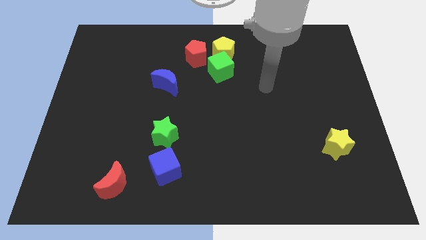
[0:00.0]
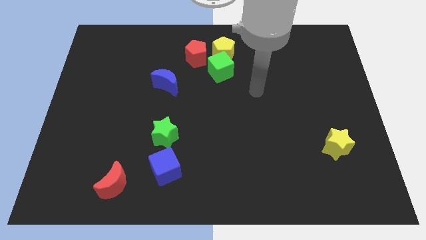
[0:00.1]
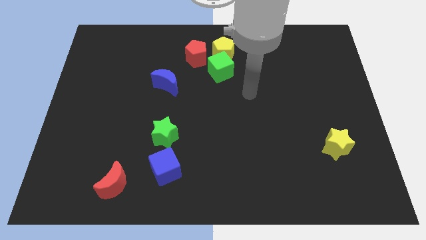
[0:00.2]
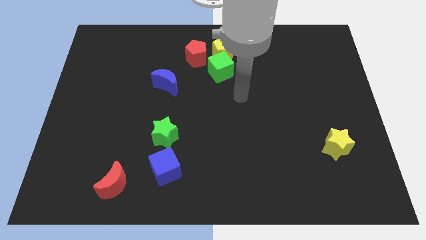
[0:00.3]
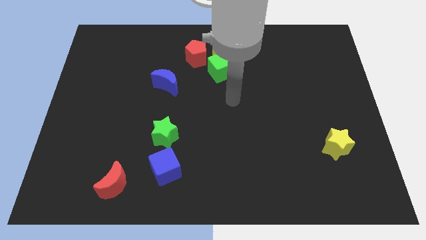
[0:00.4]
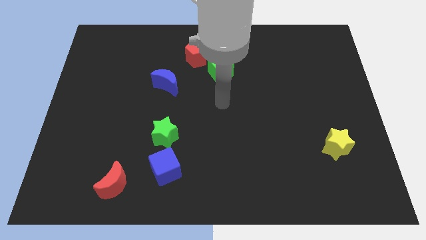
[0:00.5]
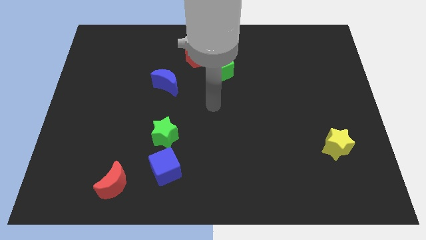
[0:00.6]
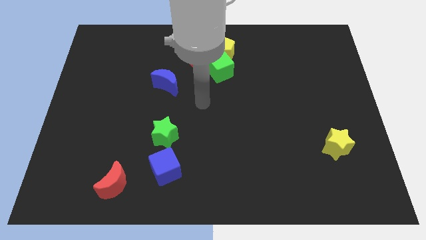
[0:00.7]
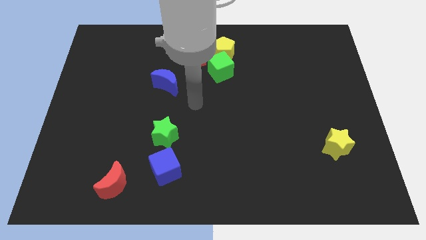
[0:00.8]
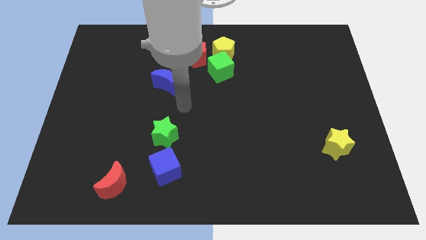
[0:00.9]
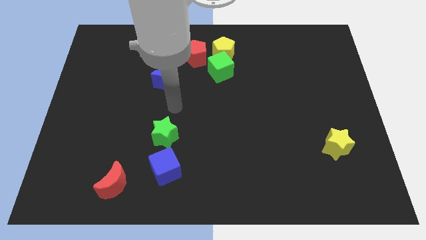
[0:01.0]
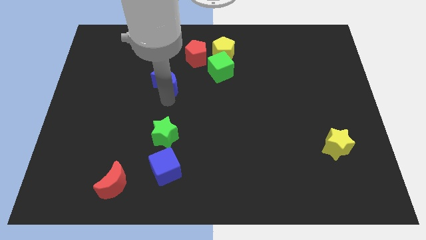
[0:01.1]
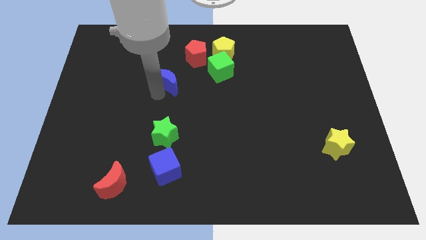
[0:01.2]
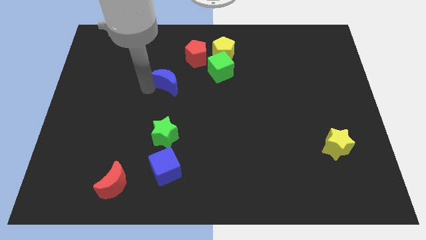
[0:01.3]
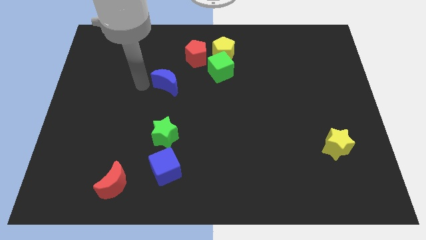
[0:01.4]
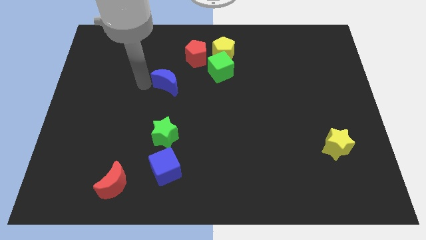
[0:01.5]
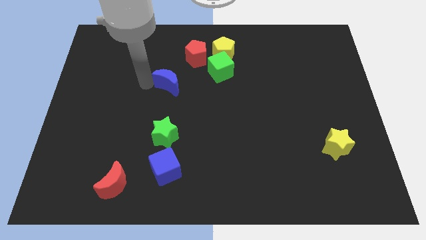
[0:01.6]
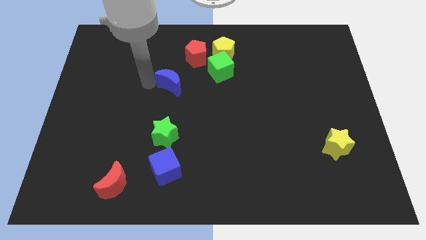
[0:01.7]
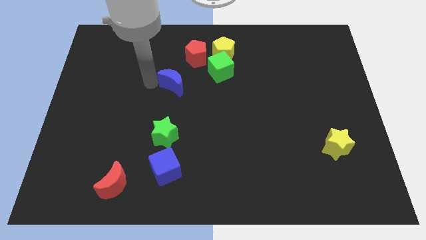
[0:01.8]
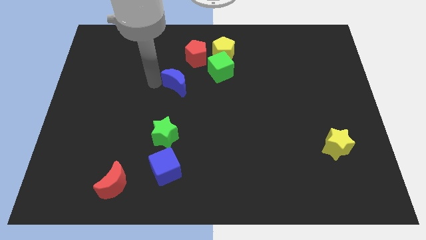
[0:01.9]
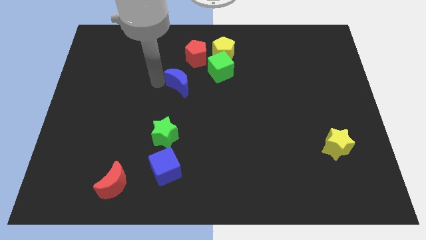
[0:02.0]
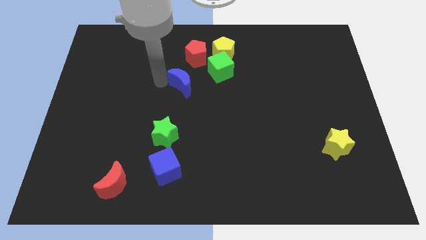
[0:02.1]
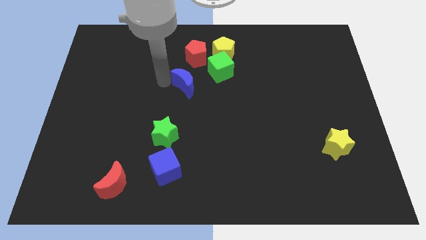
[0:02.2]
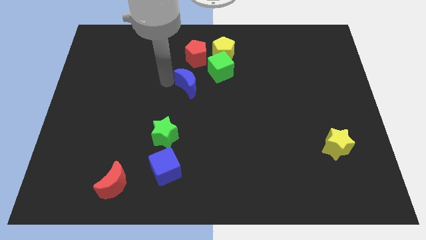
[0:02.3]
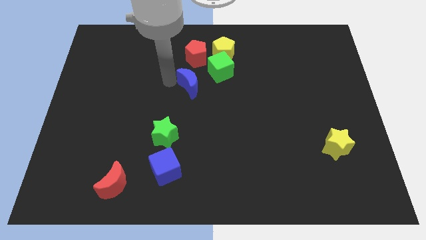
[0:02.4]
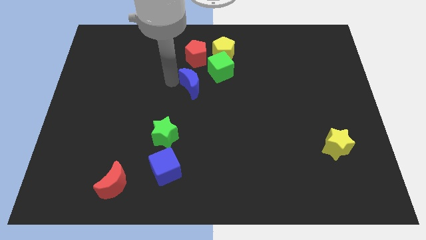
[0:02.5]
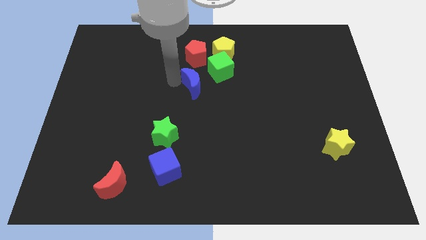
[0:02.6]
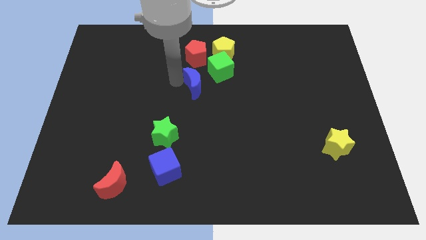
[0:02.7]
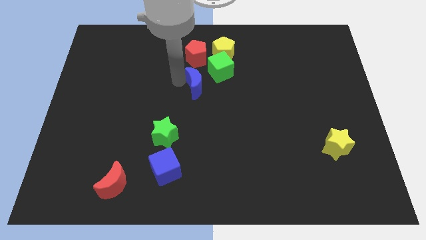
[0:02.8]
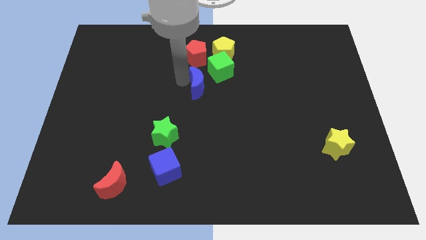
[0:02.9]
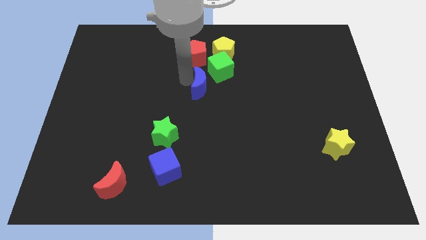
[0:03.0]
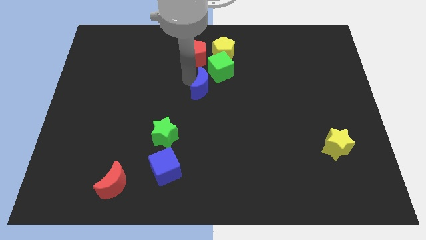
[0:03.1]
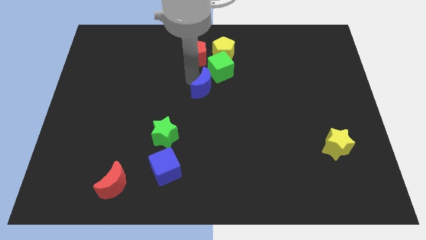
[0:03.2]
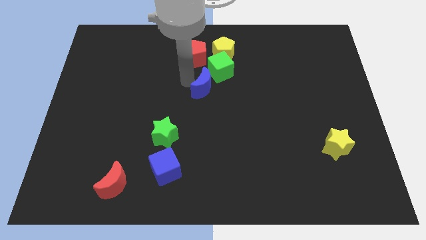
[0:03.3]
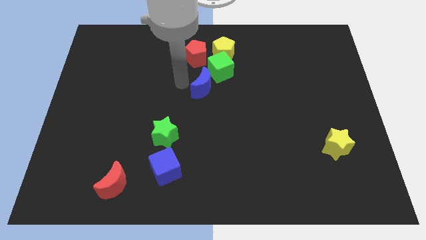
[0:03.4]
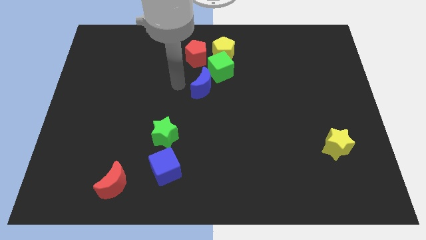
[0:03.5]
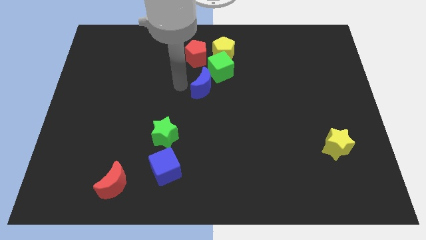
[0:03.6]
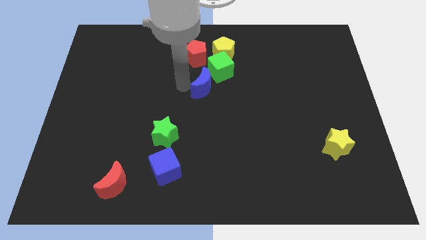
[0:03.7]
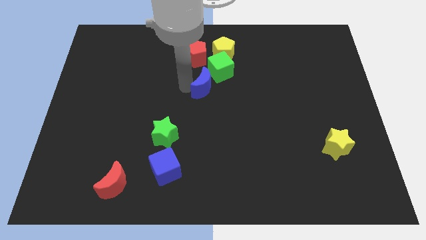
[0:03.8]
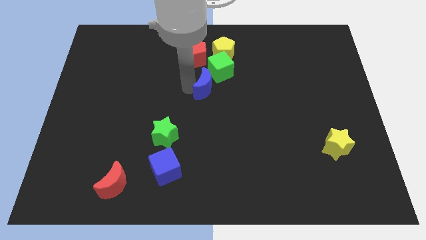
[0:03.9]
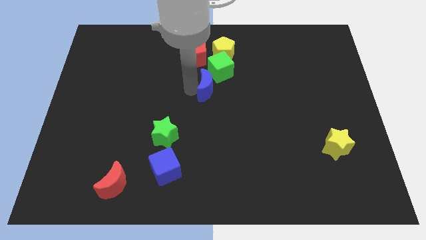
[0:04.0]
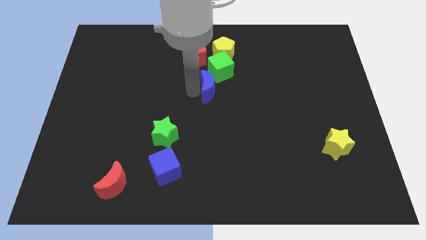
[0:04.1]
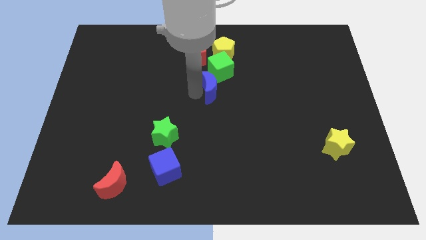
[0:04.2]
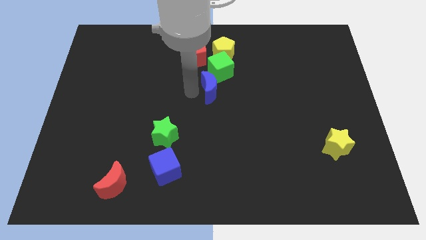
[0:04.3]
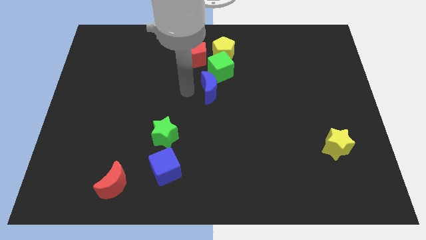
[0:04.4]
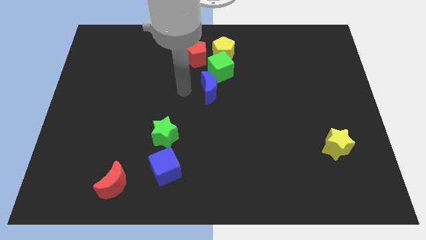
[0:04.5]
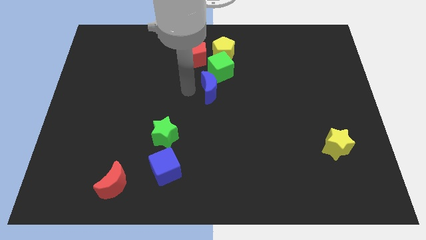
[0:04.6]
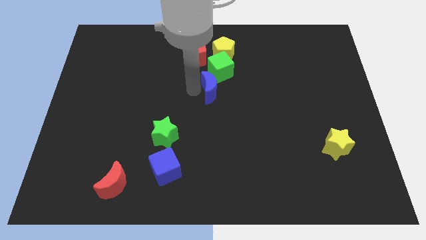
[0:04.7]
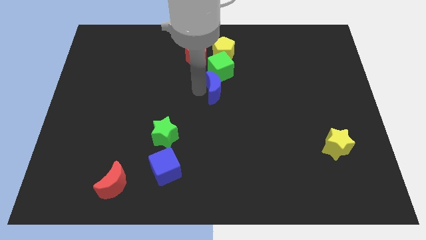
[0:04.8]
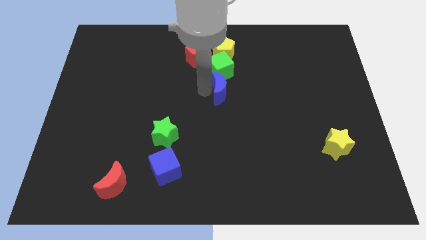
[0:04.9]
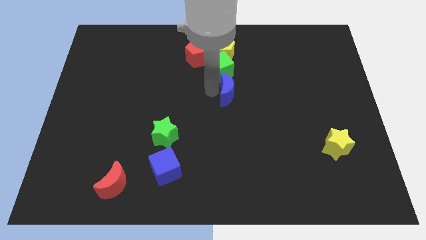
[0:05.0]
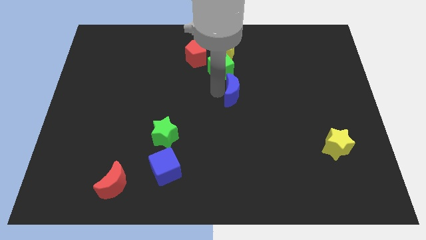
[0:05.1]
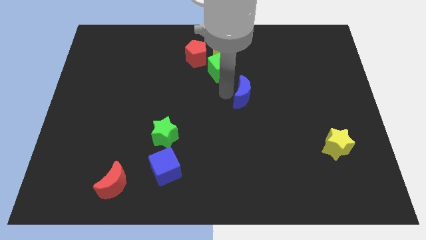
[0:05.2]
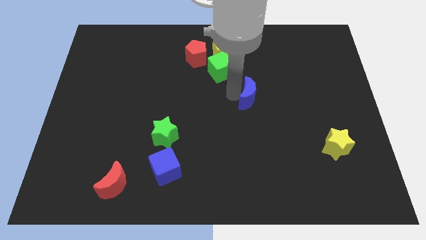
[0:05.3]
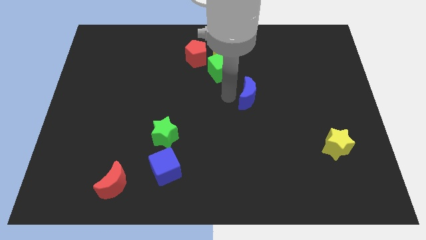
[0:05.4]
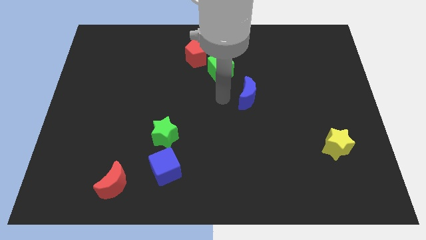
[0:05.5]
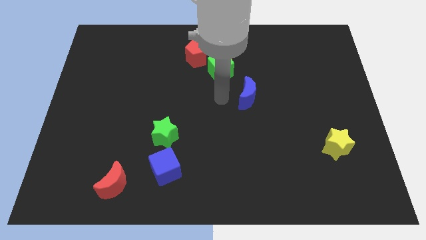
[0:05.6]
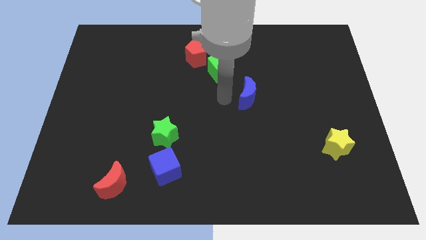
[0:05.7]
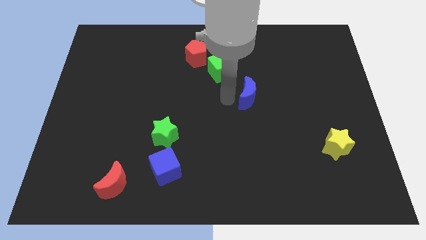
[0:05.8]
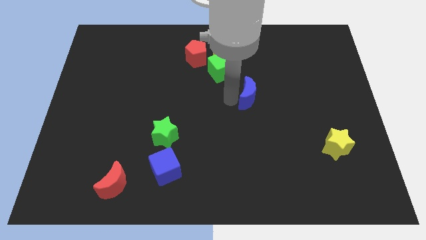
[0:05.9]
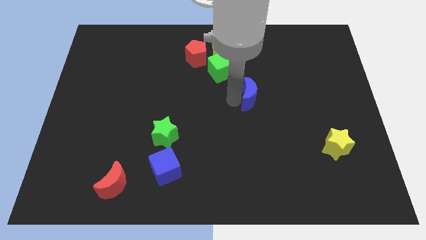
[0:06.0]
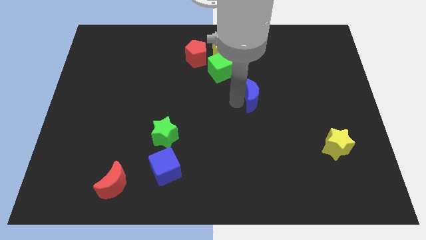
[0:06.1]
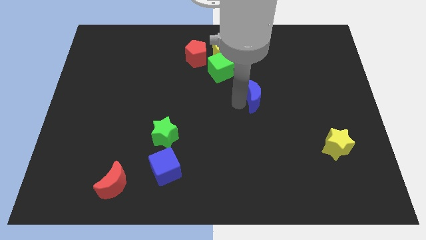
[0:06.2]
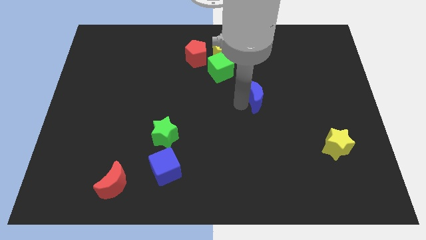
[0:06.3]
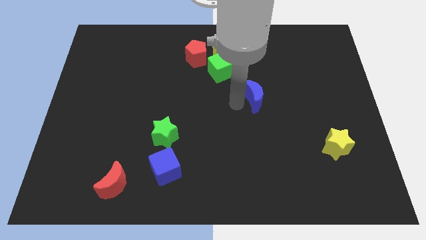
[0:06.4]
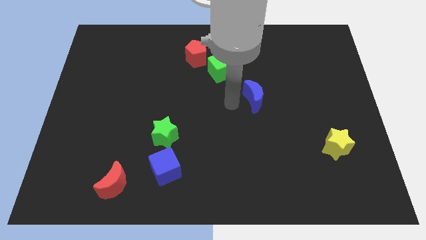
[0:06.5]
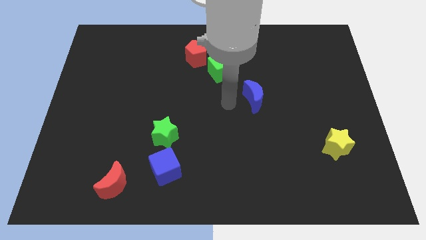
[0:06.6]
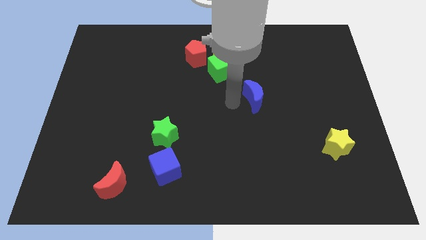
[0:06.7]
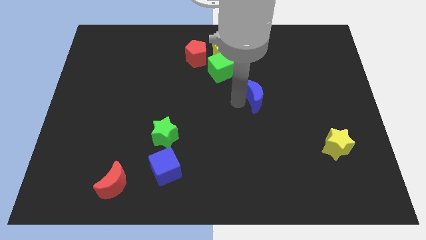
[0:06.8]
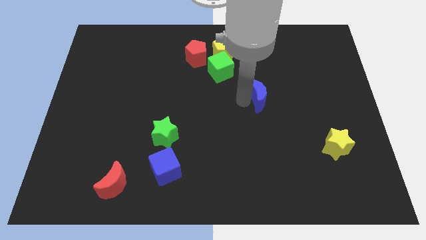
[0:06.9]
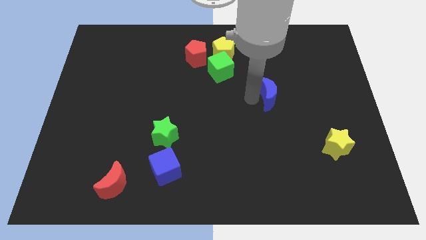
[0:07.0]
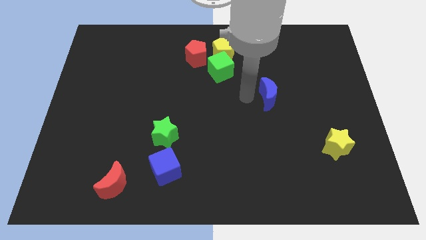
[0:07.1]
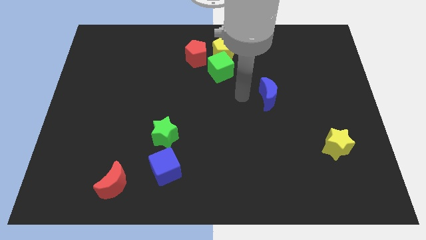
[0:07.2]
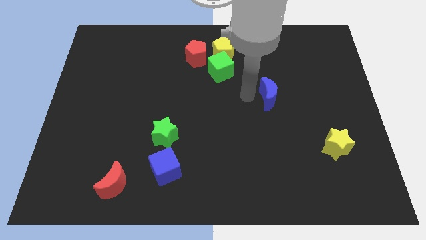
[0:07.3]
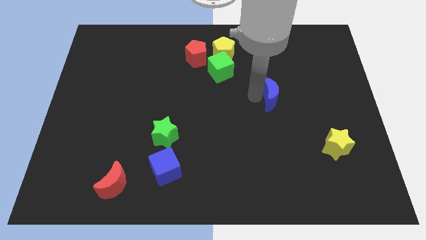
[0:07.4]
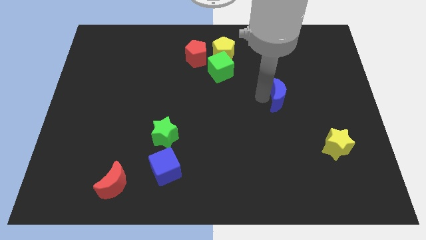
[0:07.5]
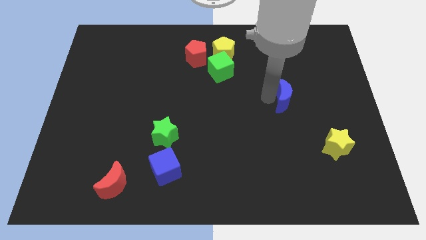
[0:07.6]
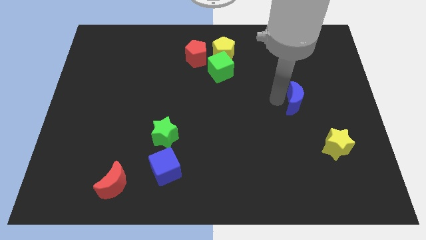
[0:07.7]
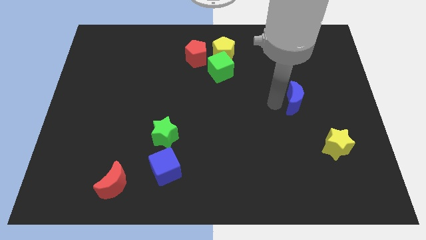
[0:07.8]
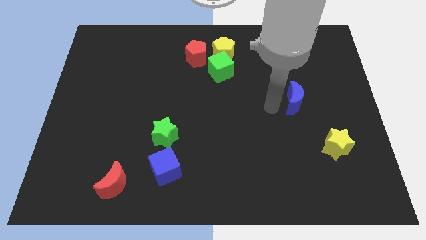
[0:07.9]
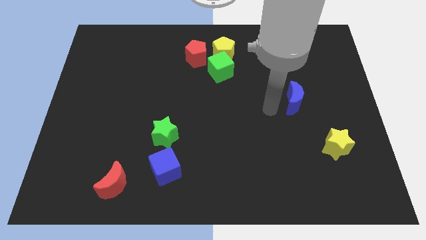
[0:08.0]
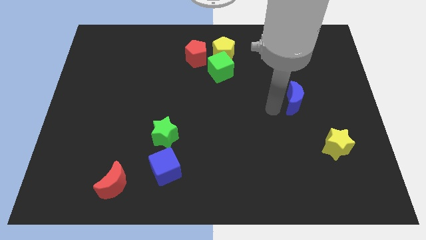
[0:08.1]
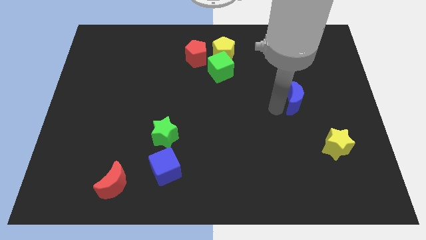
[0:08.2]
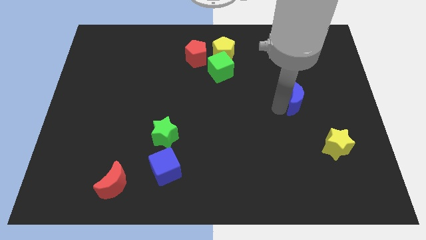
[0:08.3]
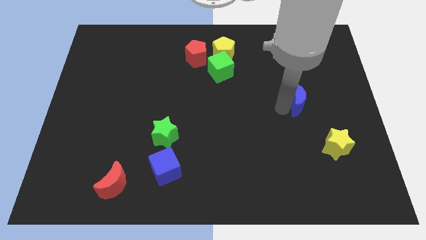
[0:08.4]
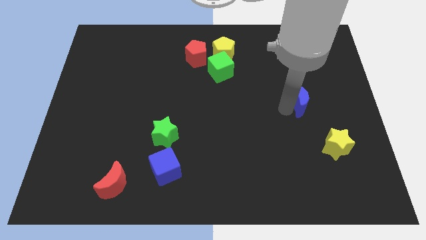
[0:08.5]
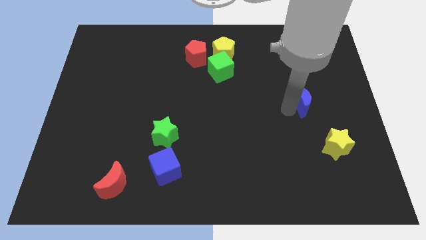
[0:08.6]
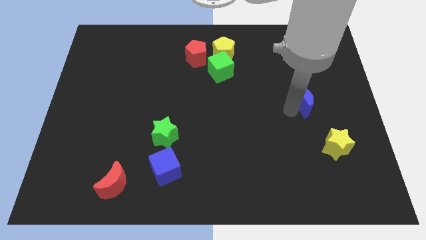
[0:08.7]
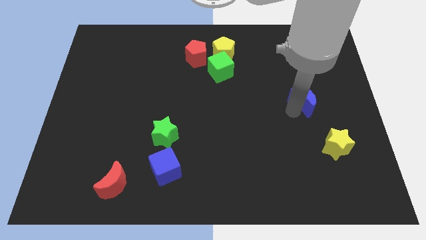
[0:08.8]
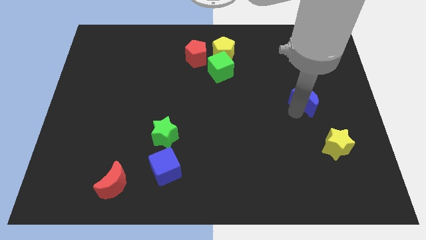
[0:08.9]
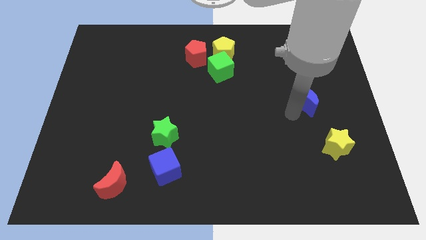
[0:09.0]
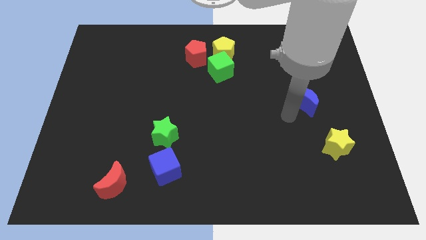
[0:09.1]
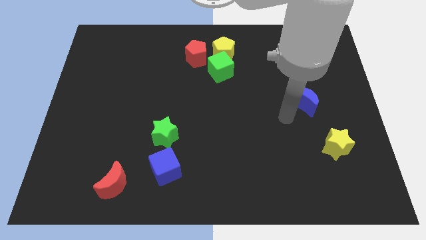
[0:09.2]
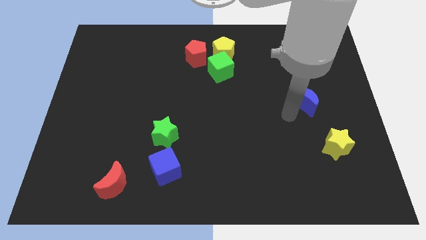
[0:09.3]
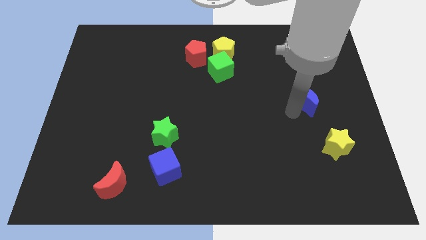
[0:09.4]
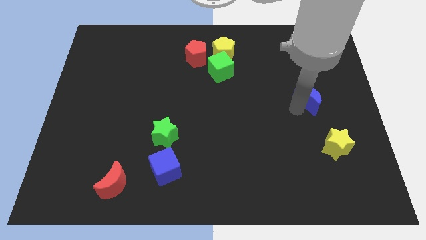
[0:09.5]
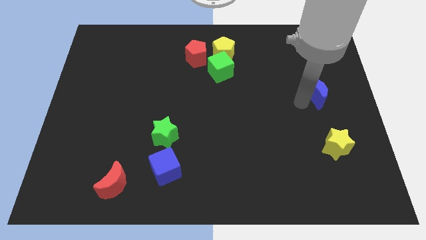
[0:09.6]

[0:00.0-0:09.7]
put the blue moon to the center right
